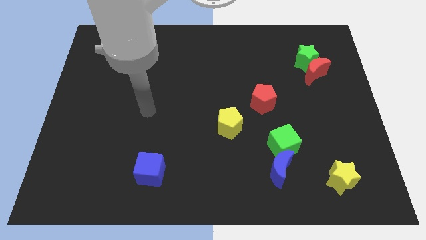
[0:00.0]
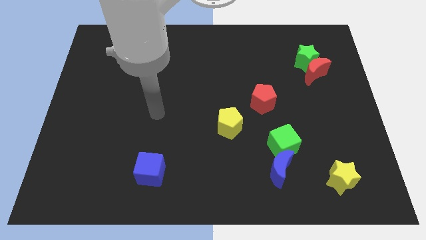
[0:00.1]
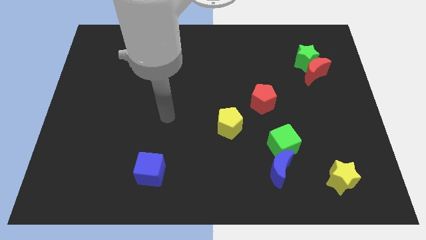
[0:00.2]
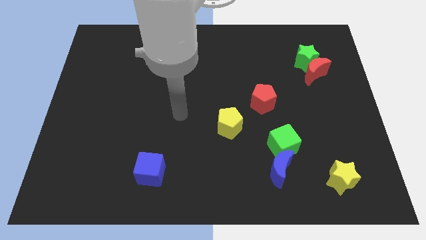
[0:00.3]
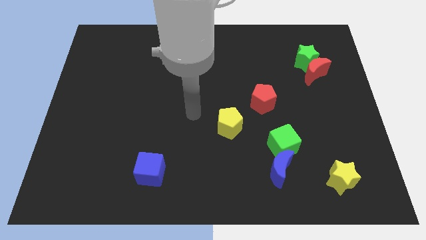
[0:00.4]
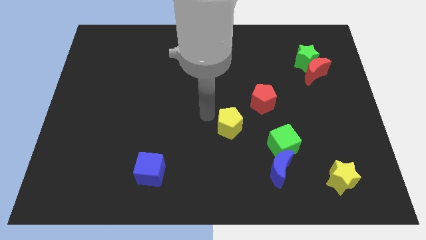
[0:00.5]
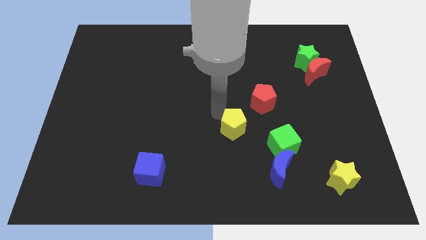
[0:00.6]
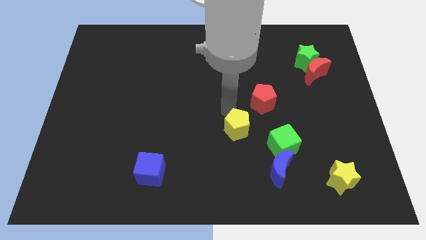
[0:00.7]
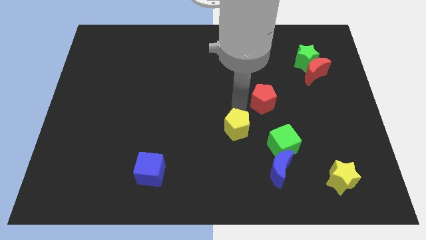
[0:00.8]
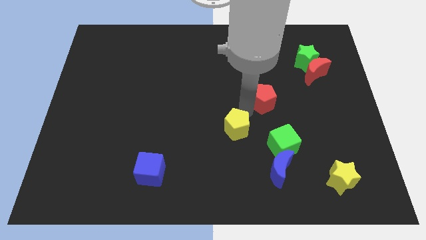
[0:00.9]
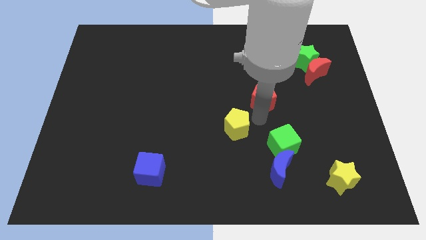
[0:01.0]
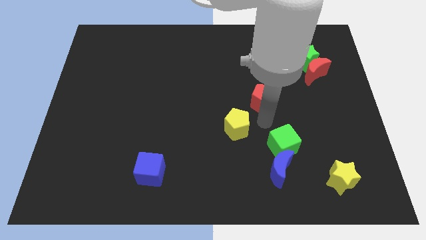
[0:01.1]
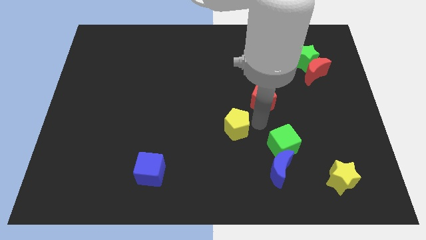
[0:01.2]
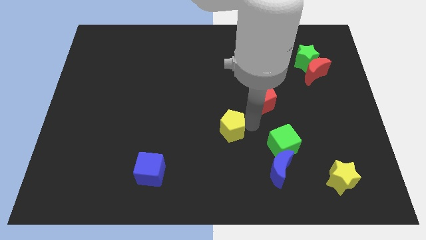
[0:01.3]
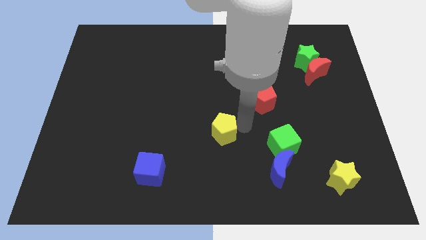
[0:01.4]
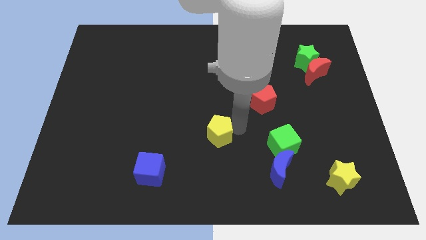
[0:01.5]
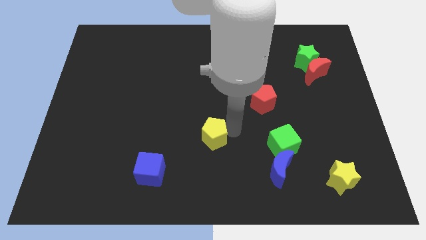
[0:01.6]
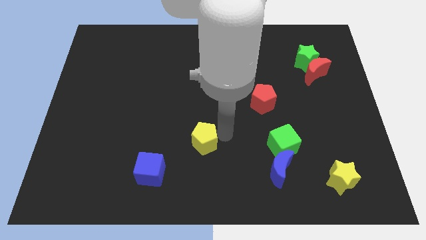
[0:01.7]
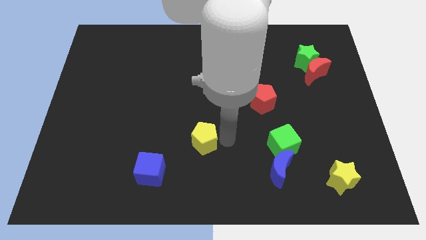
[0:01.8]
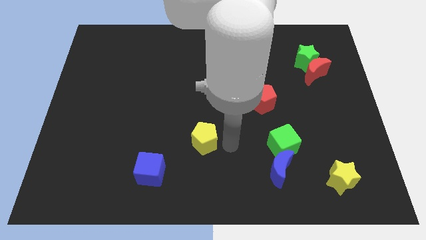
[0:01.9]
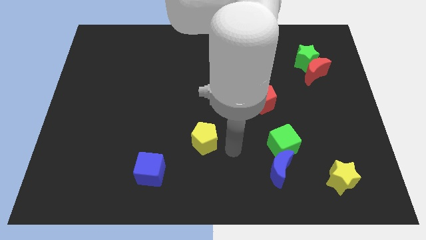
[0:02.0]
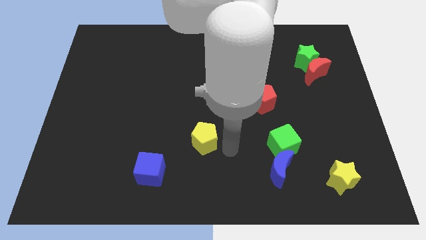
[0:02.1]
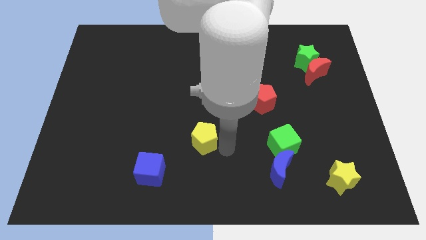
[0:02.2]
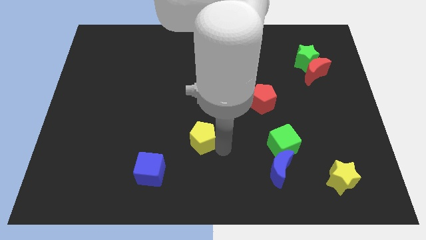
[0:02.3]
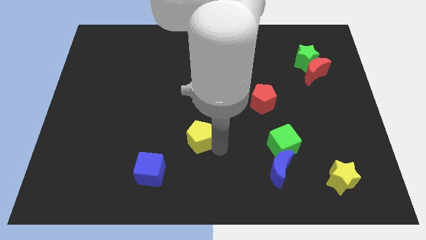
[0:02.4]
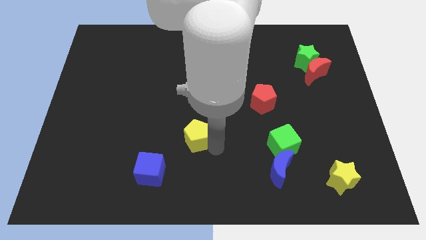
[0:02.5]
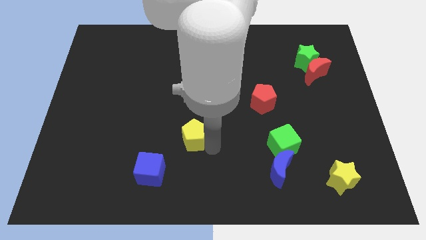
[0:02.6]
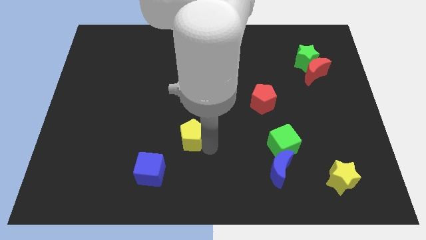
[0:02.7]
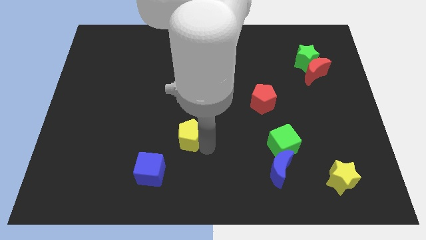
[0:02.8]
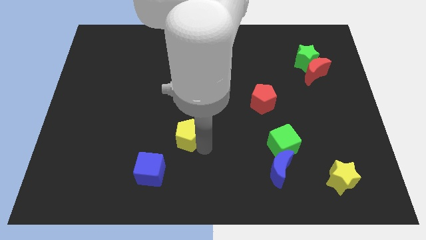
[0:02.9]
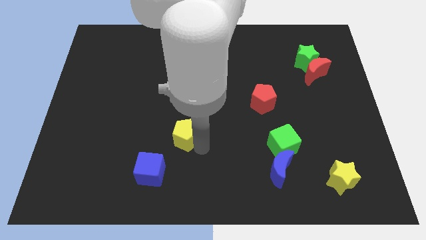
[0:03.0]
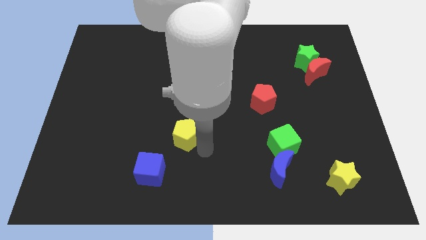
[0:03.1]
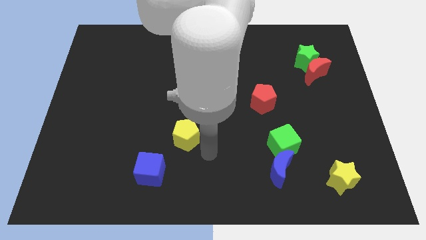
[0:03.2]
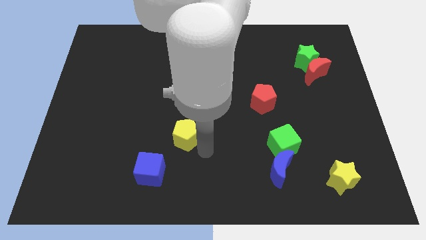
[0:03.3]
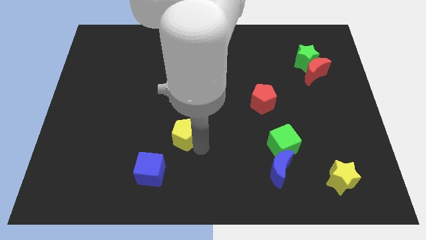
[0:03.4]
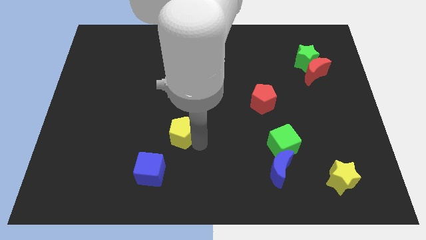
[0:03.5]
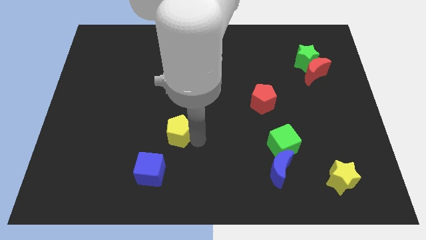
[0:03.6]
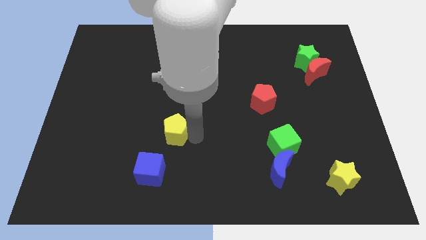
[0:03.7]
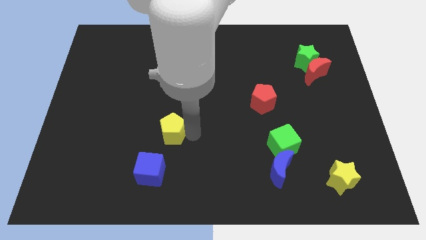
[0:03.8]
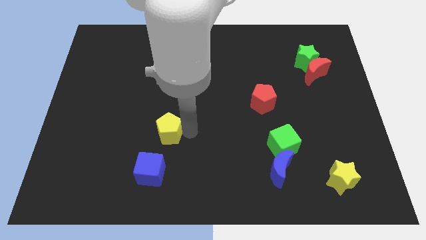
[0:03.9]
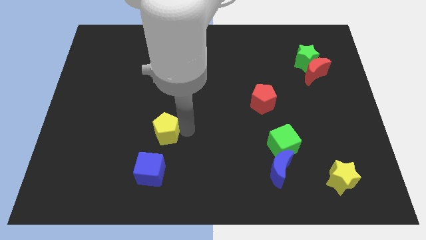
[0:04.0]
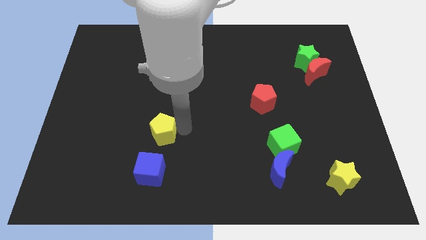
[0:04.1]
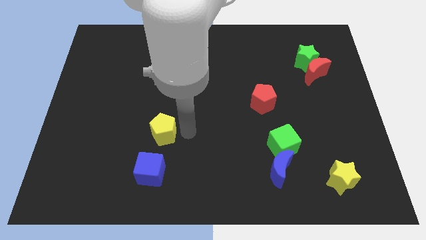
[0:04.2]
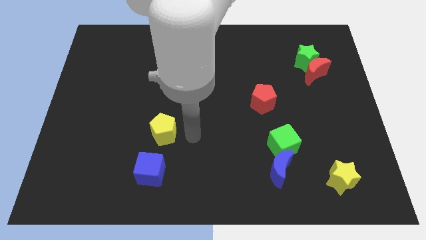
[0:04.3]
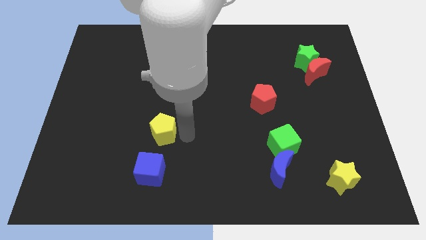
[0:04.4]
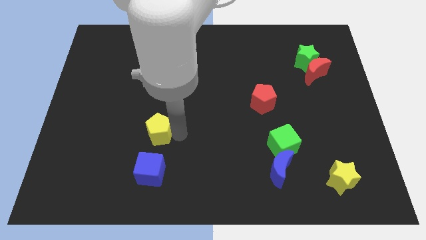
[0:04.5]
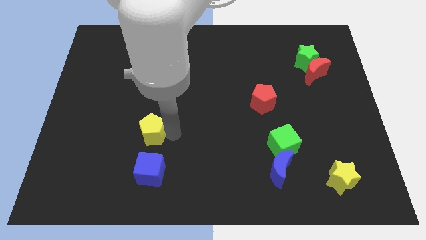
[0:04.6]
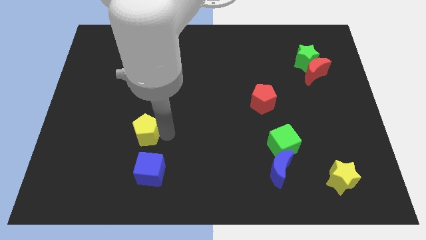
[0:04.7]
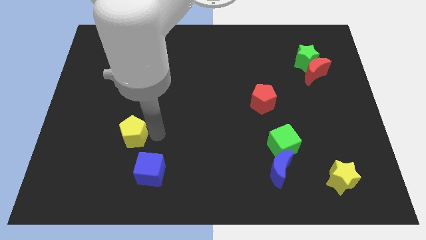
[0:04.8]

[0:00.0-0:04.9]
push the yellow pentagon to the left

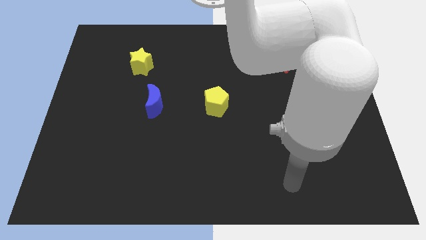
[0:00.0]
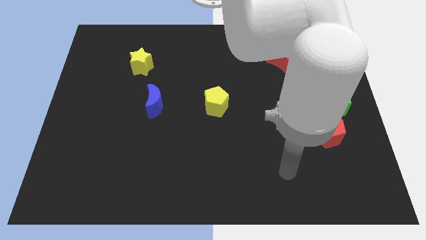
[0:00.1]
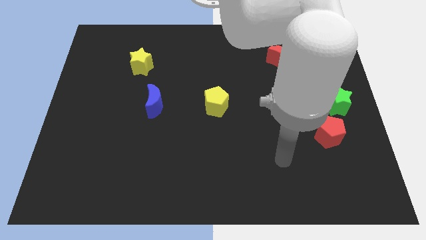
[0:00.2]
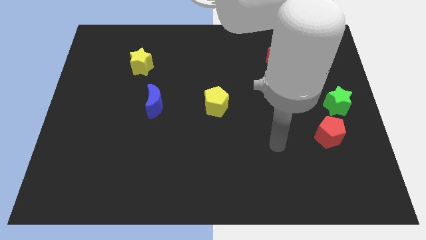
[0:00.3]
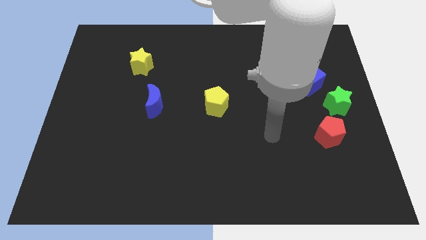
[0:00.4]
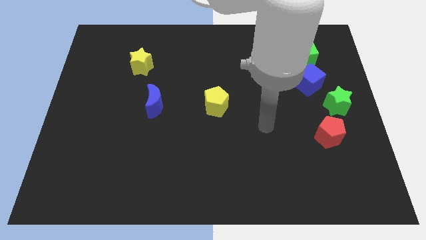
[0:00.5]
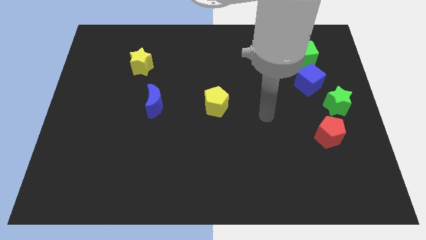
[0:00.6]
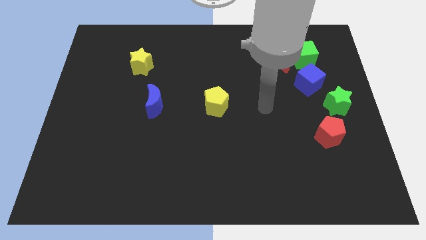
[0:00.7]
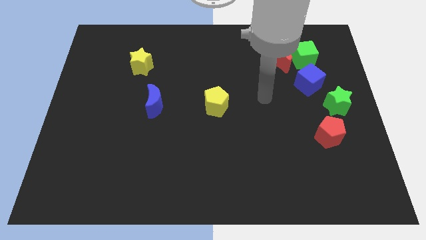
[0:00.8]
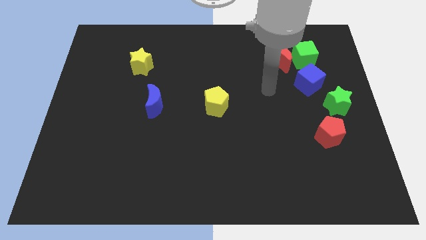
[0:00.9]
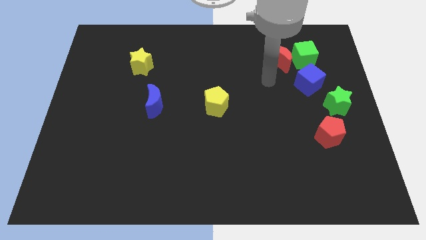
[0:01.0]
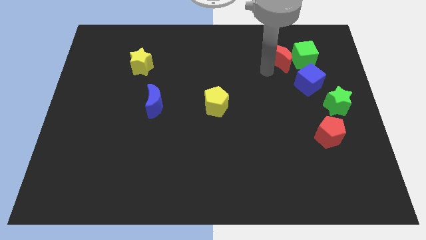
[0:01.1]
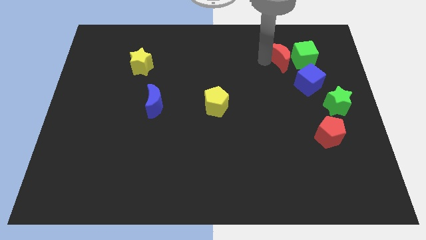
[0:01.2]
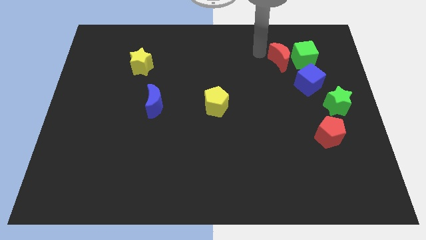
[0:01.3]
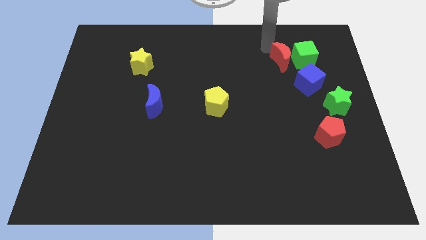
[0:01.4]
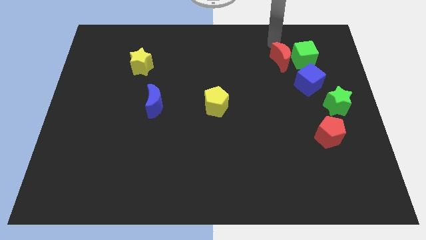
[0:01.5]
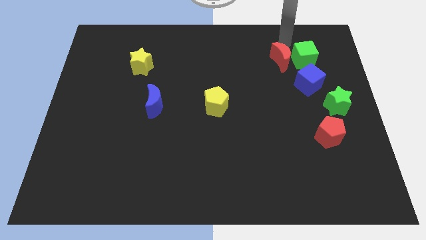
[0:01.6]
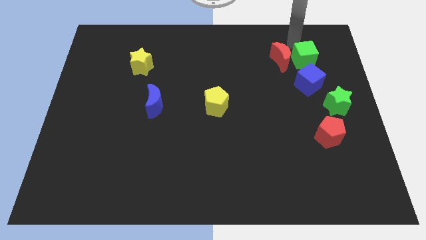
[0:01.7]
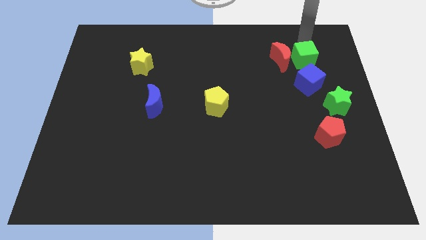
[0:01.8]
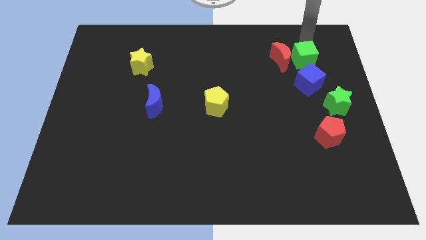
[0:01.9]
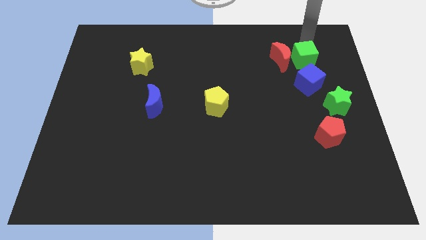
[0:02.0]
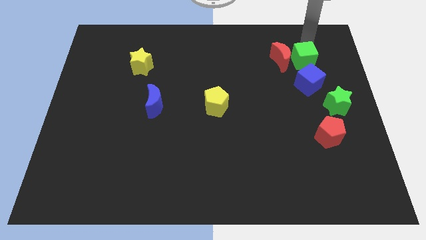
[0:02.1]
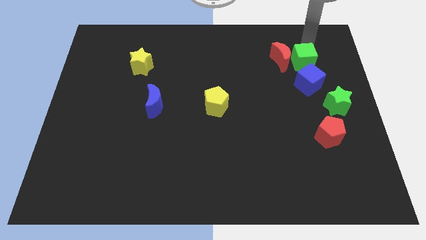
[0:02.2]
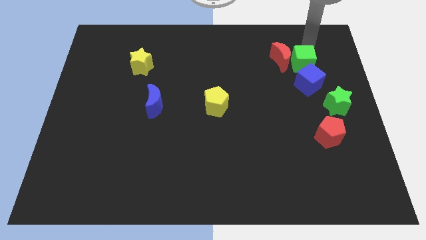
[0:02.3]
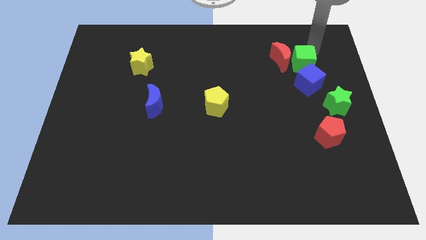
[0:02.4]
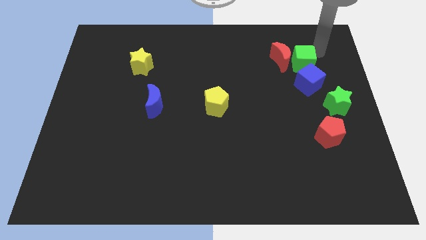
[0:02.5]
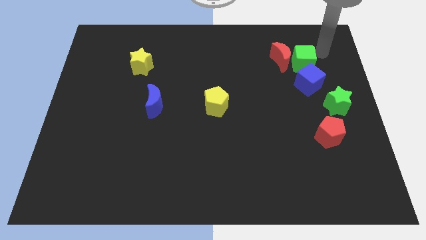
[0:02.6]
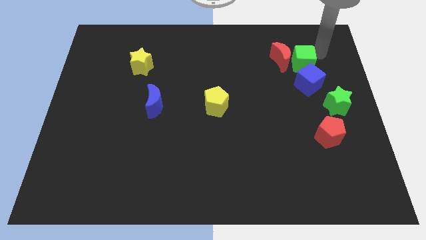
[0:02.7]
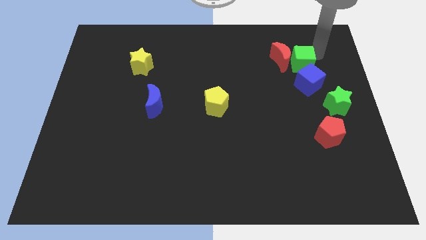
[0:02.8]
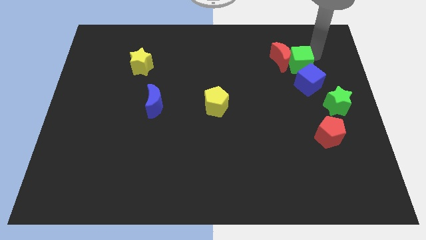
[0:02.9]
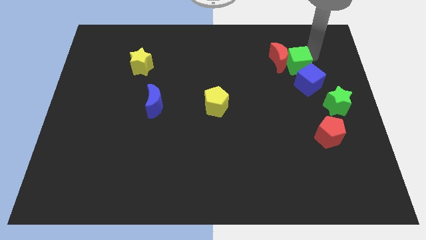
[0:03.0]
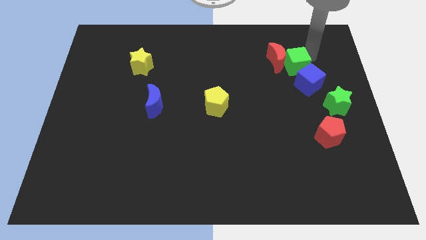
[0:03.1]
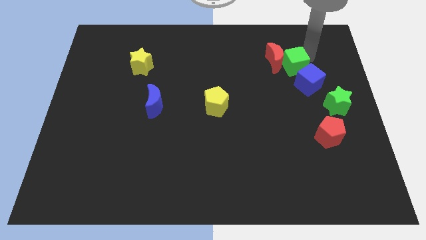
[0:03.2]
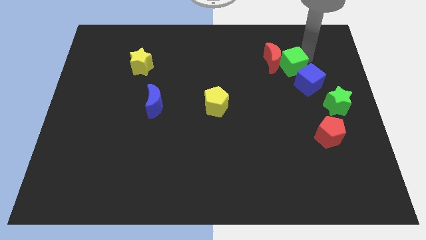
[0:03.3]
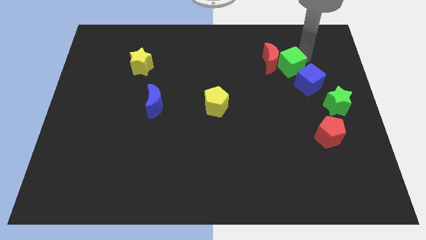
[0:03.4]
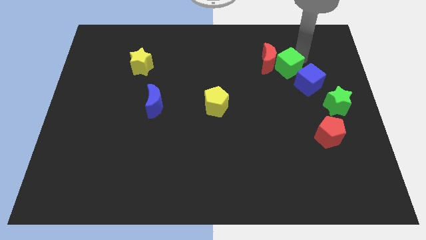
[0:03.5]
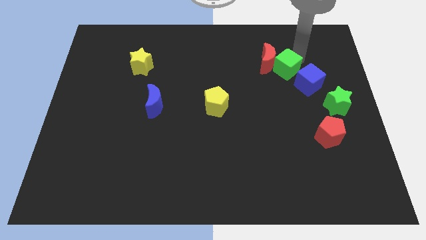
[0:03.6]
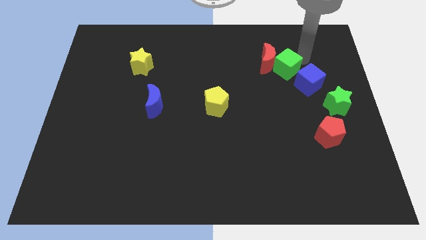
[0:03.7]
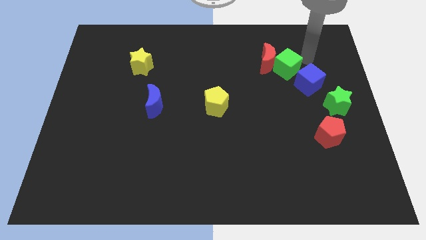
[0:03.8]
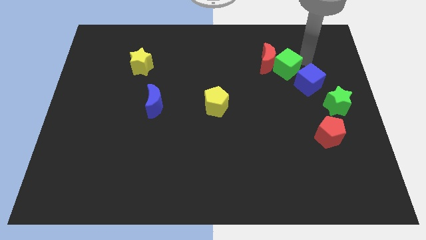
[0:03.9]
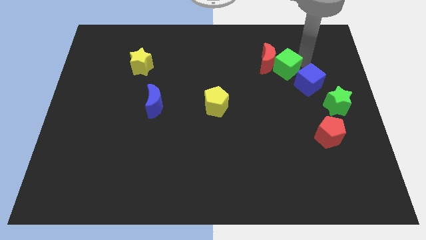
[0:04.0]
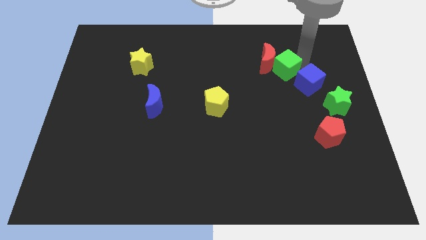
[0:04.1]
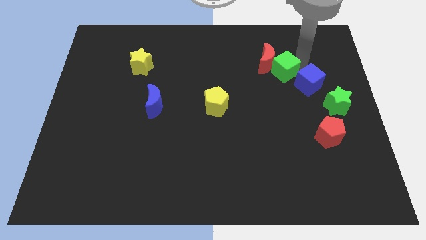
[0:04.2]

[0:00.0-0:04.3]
slightly move the green cube diagonally down and left
